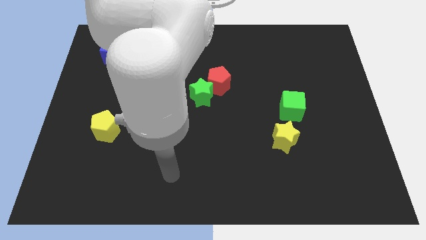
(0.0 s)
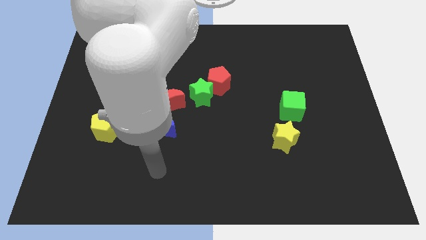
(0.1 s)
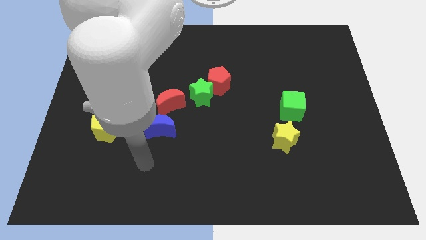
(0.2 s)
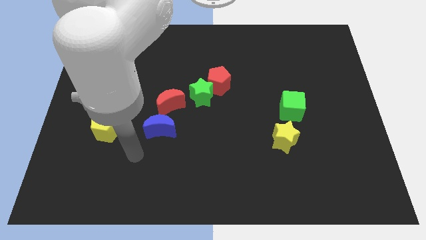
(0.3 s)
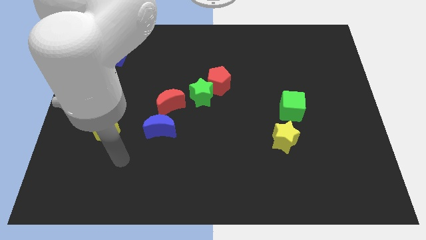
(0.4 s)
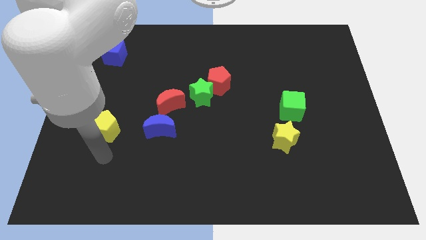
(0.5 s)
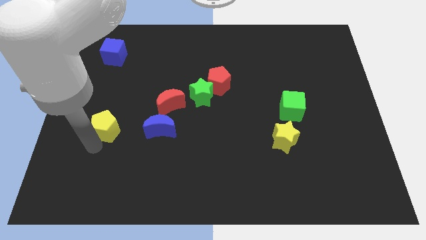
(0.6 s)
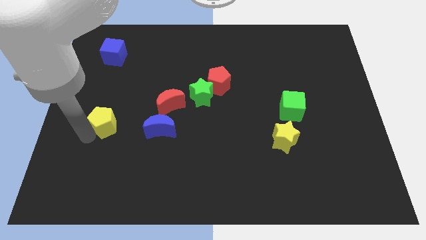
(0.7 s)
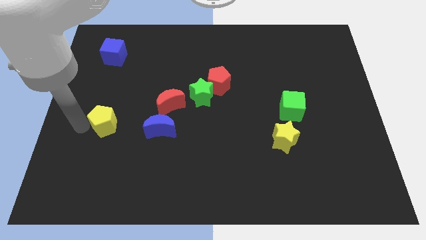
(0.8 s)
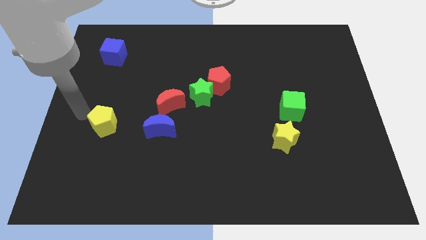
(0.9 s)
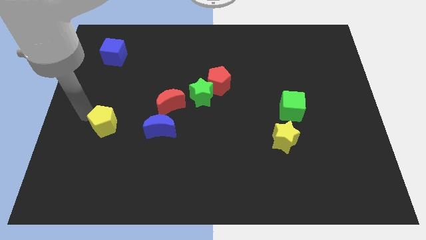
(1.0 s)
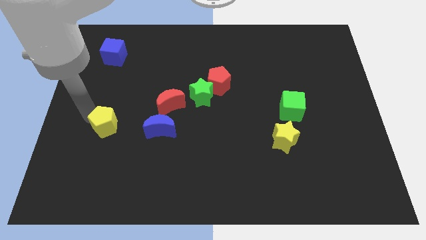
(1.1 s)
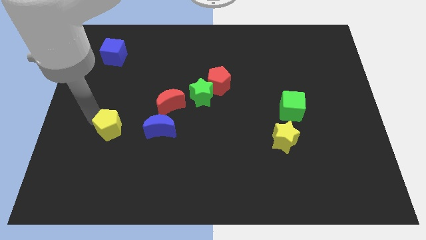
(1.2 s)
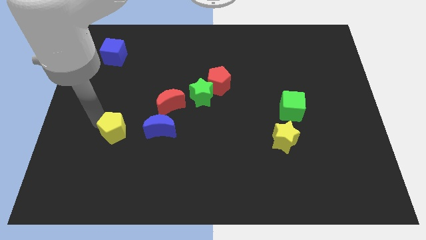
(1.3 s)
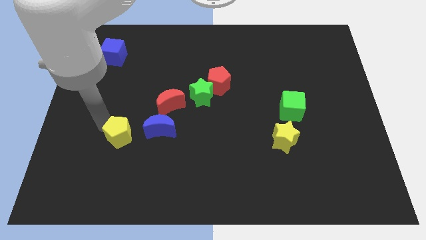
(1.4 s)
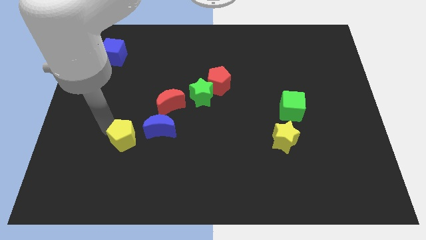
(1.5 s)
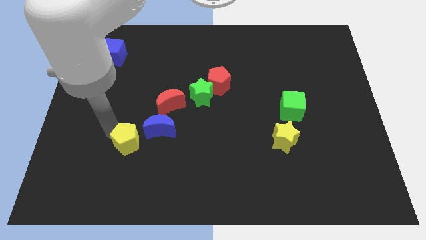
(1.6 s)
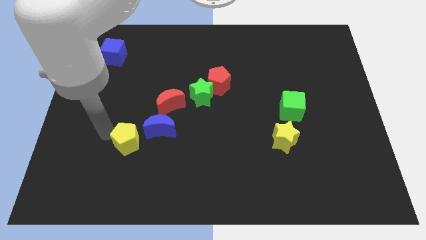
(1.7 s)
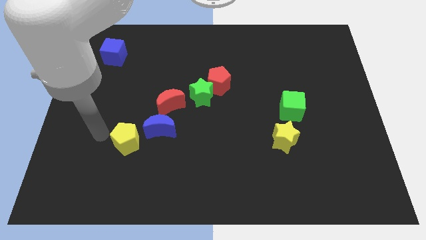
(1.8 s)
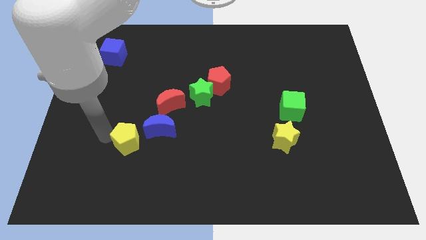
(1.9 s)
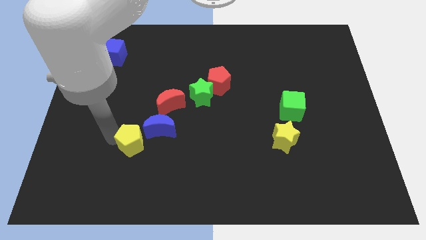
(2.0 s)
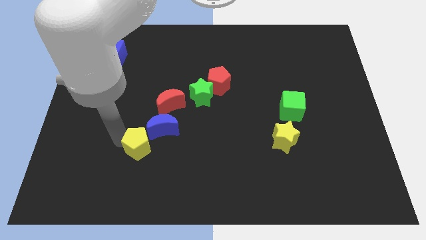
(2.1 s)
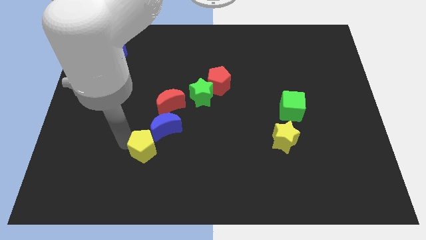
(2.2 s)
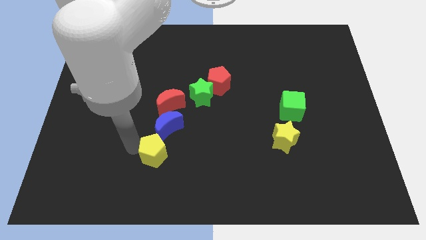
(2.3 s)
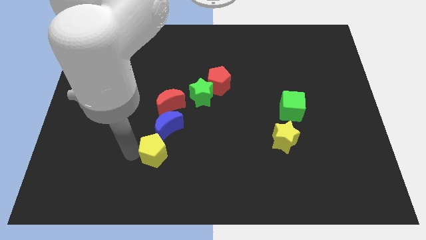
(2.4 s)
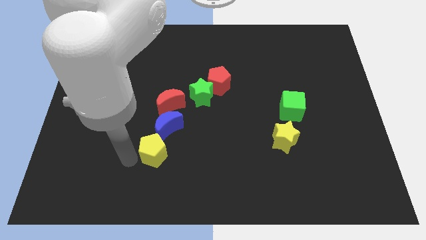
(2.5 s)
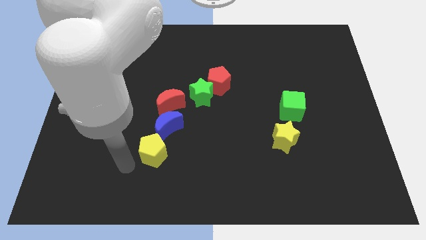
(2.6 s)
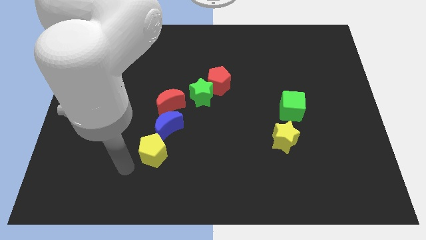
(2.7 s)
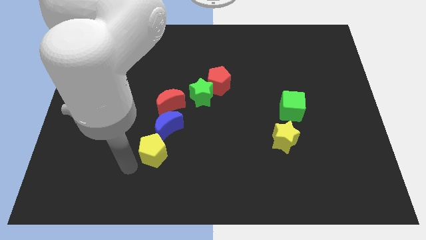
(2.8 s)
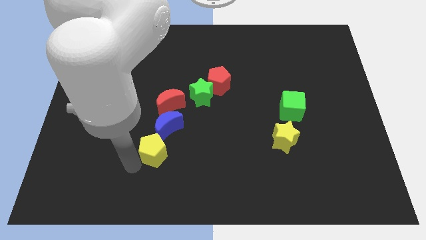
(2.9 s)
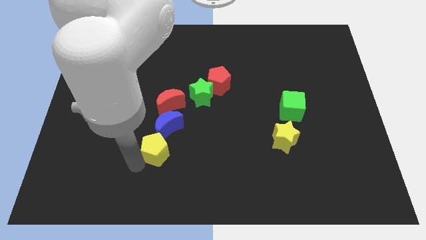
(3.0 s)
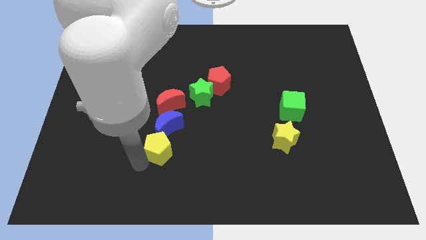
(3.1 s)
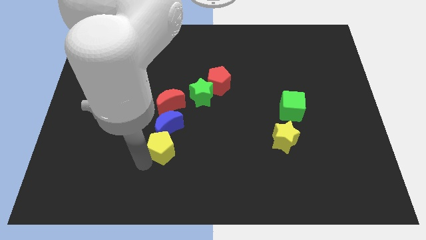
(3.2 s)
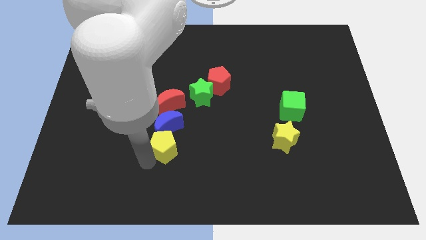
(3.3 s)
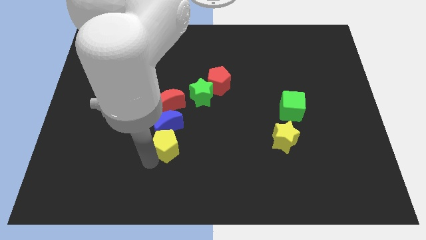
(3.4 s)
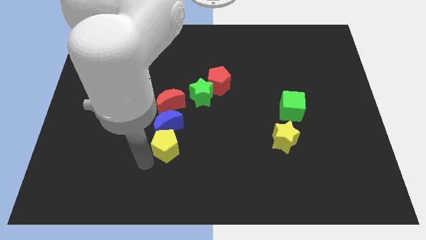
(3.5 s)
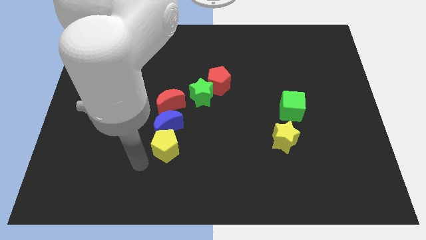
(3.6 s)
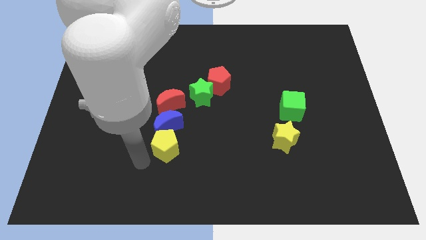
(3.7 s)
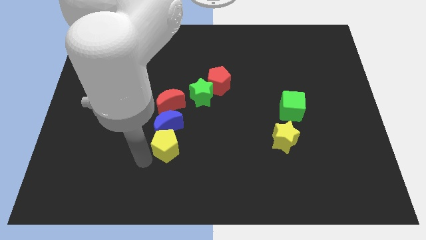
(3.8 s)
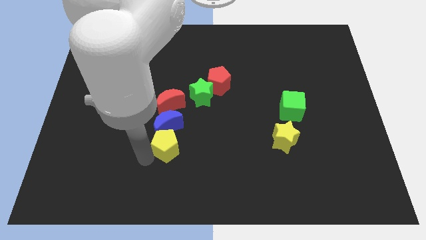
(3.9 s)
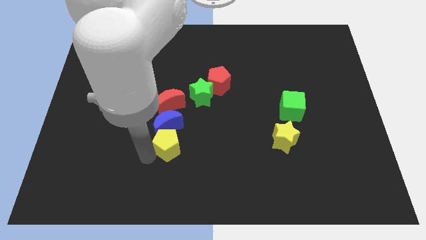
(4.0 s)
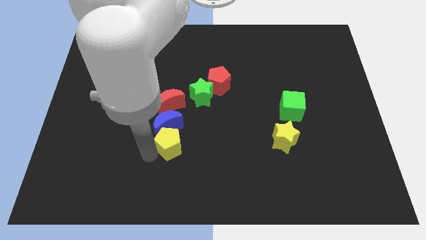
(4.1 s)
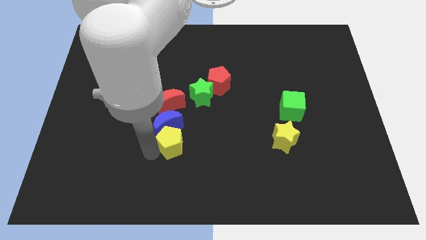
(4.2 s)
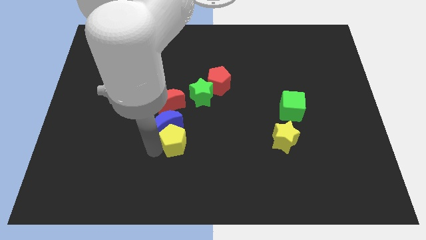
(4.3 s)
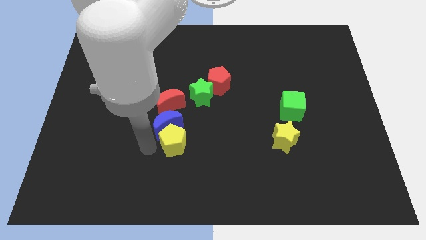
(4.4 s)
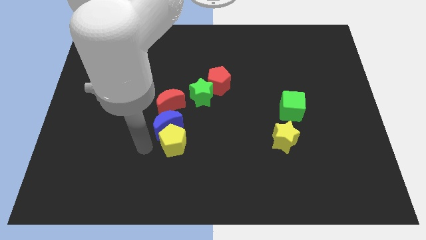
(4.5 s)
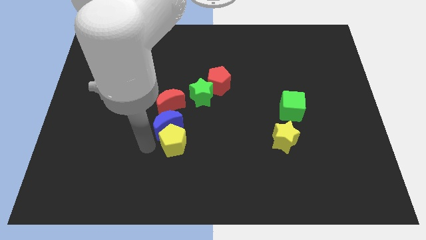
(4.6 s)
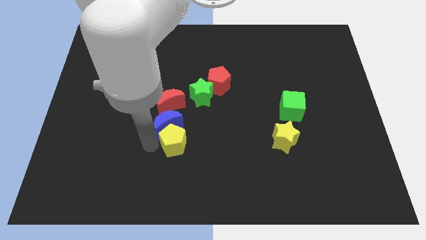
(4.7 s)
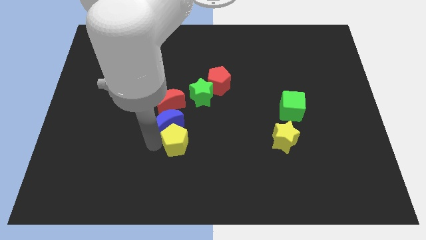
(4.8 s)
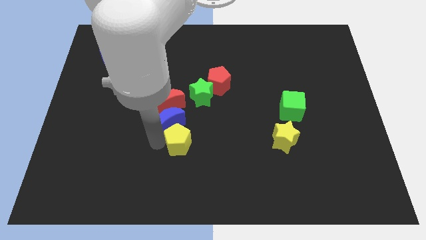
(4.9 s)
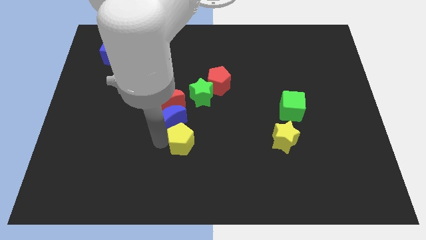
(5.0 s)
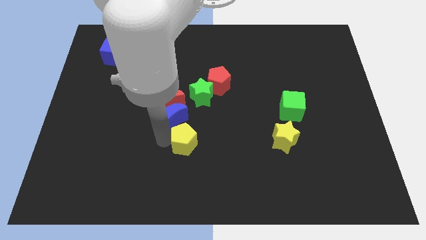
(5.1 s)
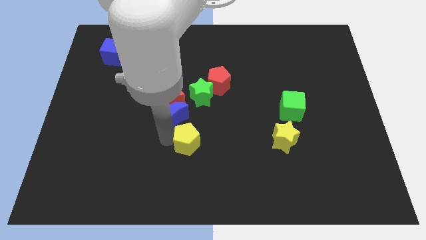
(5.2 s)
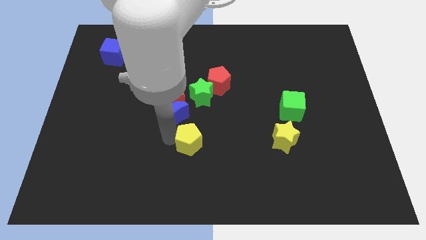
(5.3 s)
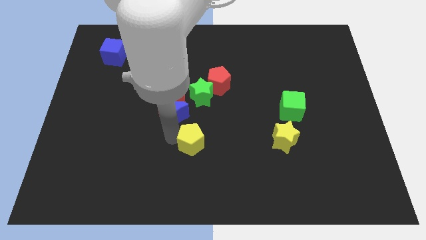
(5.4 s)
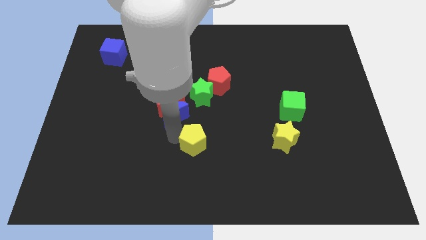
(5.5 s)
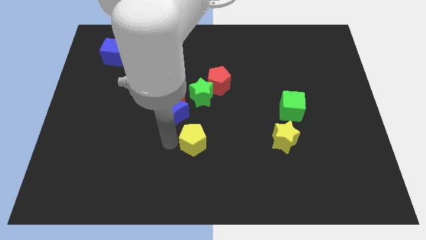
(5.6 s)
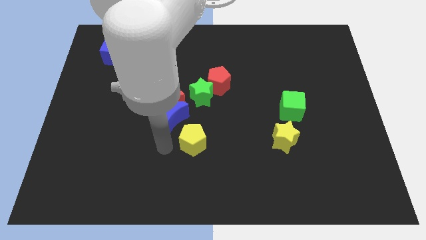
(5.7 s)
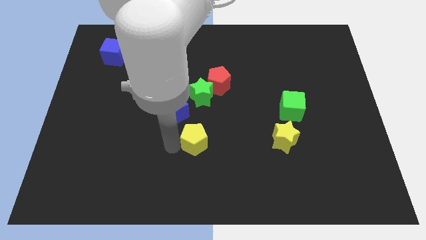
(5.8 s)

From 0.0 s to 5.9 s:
slide the yellow pentagon to the right

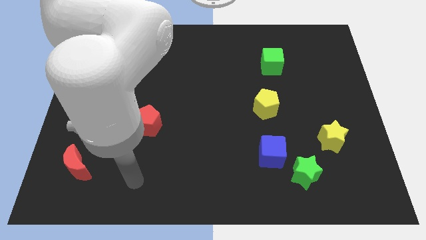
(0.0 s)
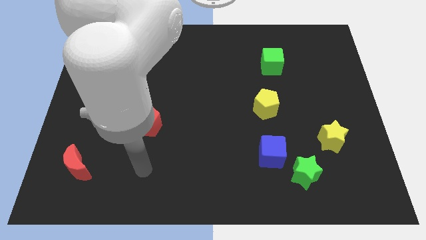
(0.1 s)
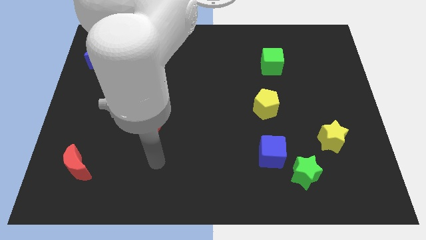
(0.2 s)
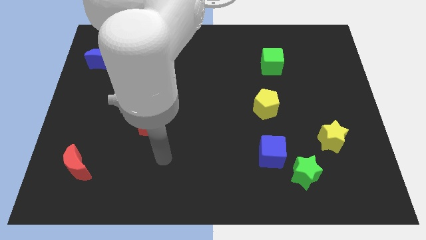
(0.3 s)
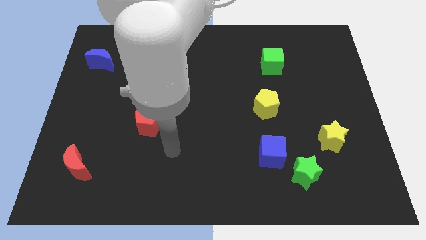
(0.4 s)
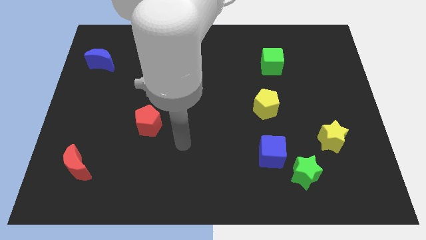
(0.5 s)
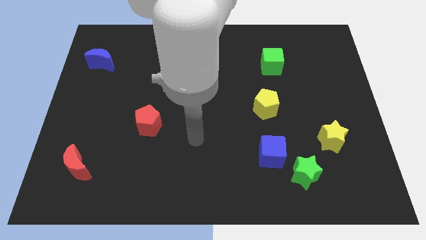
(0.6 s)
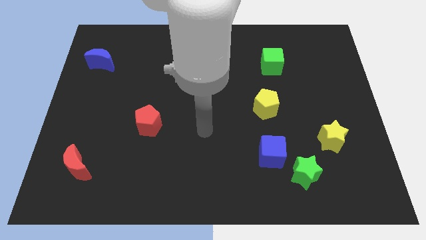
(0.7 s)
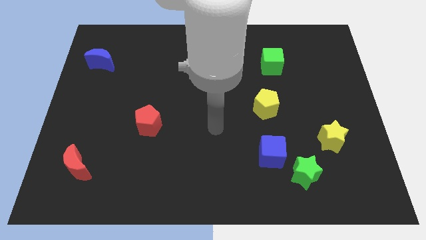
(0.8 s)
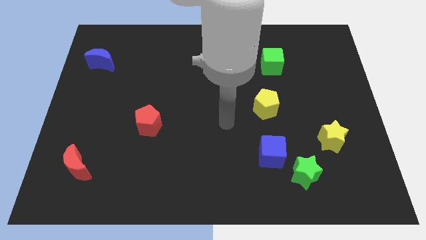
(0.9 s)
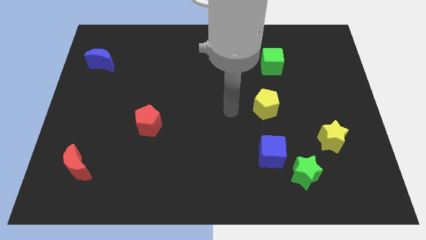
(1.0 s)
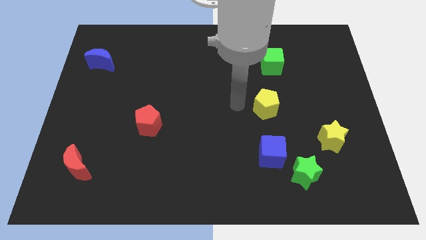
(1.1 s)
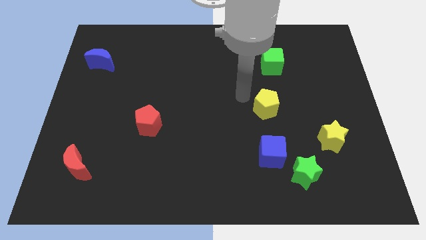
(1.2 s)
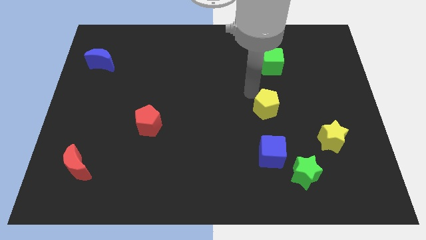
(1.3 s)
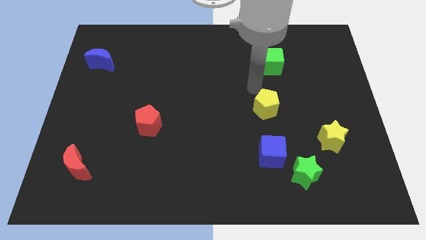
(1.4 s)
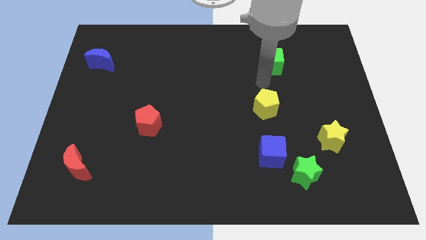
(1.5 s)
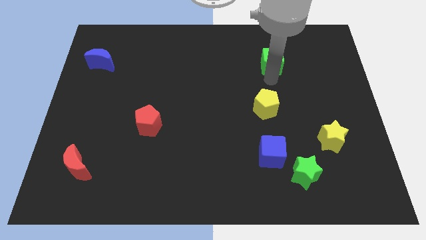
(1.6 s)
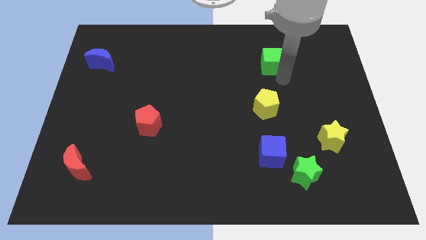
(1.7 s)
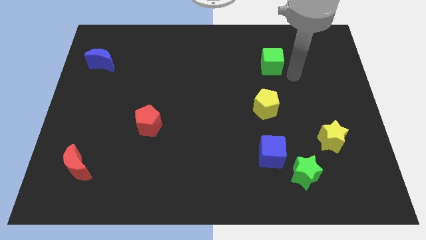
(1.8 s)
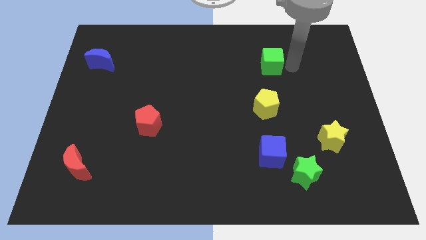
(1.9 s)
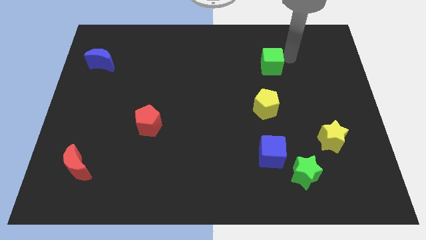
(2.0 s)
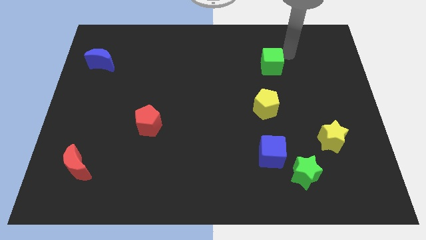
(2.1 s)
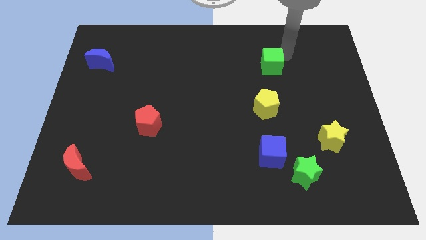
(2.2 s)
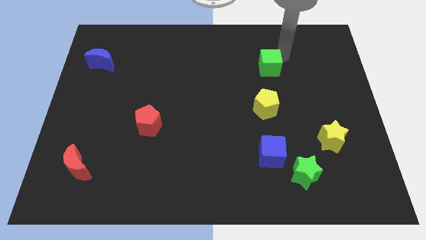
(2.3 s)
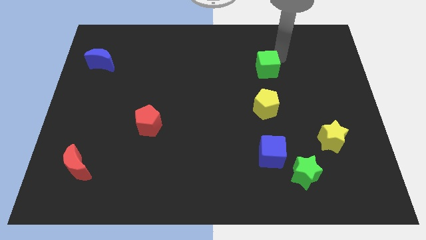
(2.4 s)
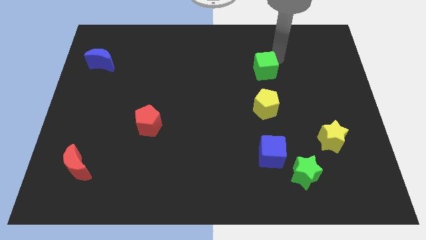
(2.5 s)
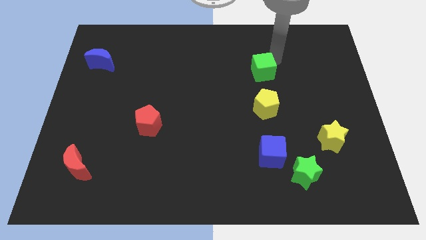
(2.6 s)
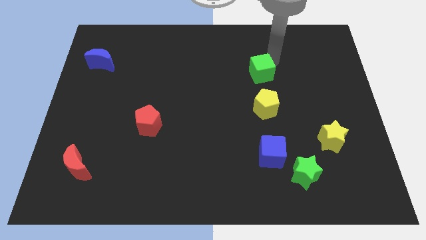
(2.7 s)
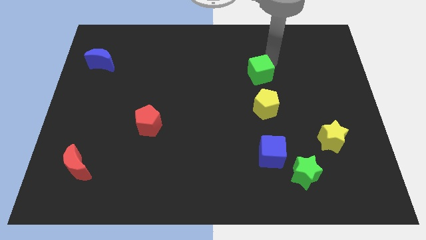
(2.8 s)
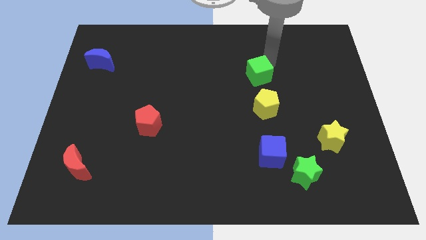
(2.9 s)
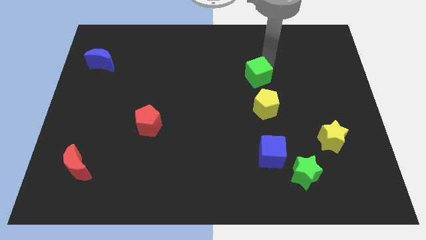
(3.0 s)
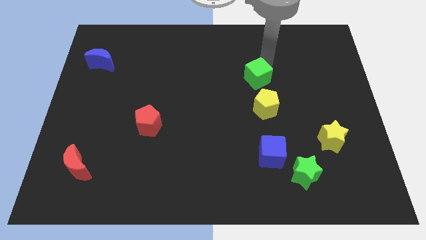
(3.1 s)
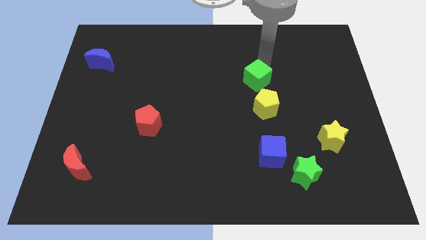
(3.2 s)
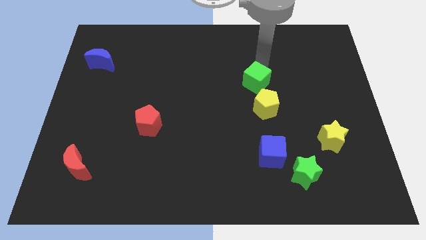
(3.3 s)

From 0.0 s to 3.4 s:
slide the green cube downwards and to the left diagonally somewhat
